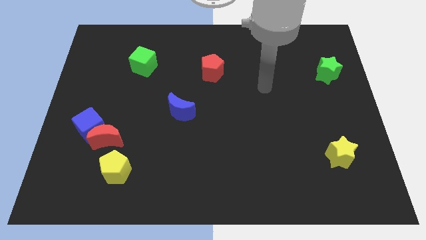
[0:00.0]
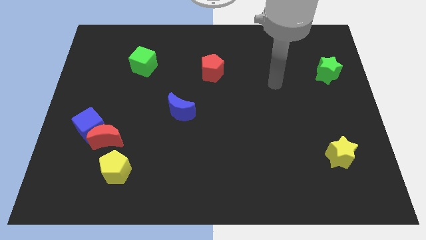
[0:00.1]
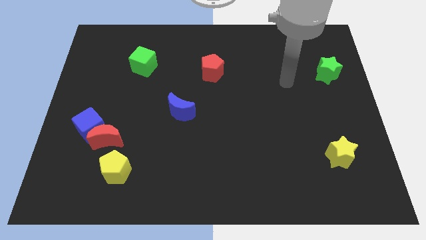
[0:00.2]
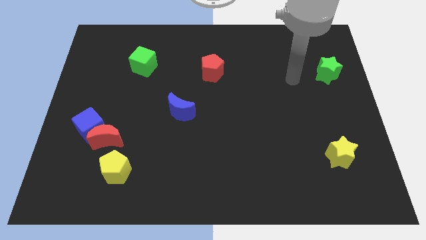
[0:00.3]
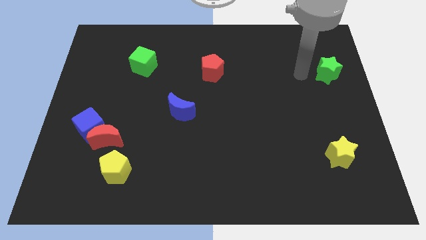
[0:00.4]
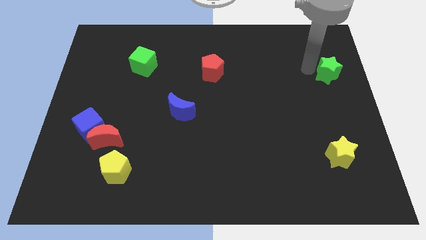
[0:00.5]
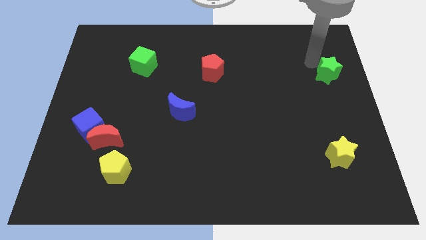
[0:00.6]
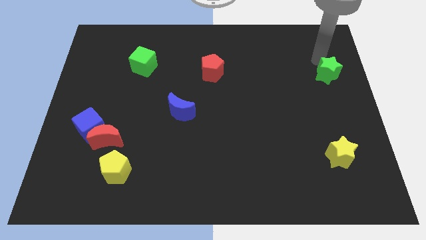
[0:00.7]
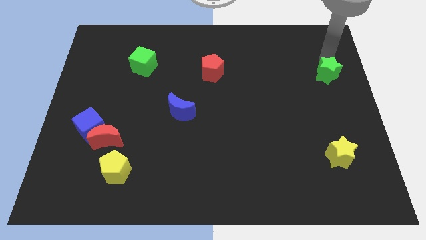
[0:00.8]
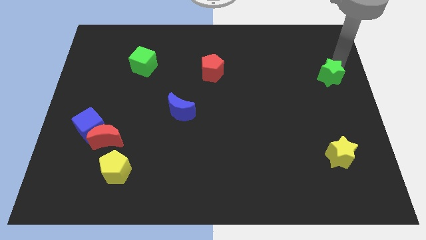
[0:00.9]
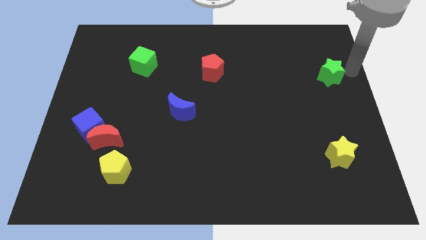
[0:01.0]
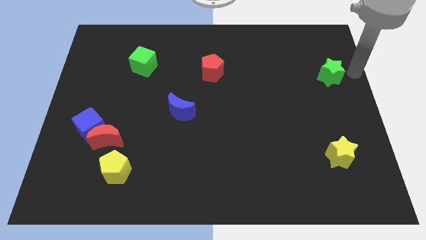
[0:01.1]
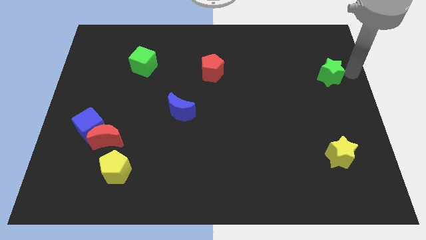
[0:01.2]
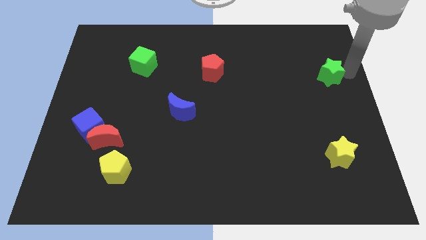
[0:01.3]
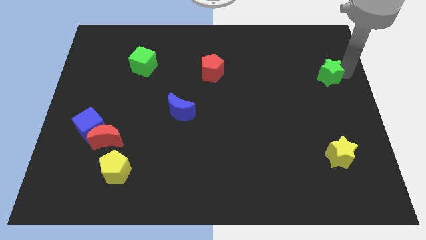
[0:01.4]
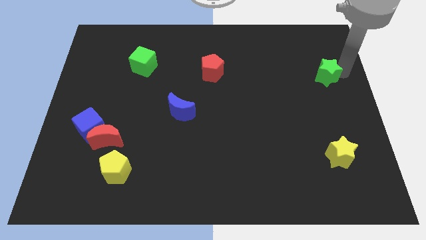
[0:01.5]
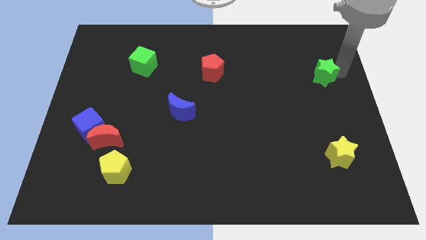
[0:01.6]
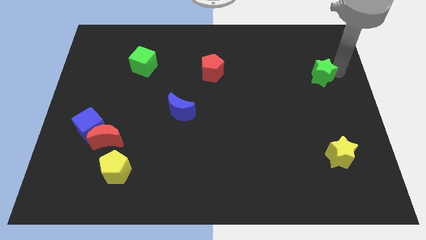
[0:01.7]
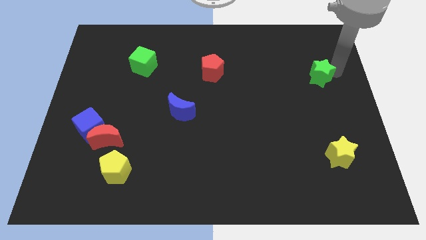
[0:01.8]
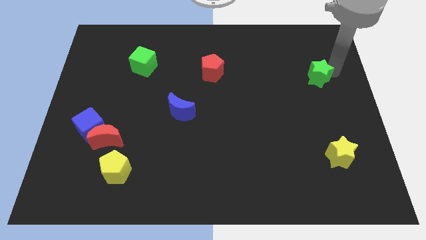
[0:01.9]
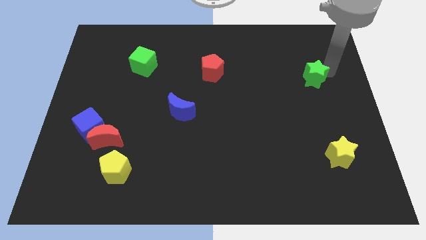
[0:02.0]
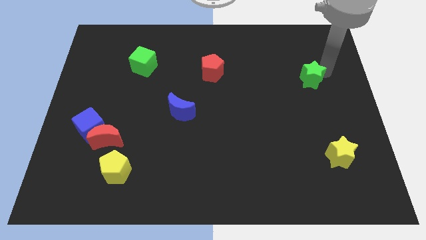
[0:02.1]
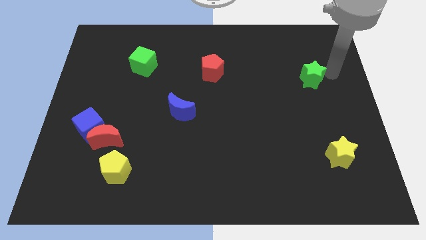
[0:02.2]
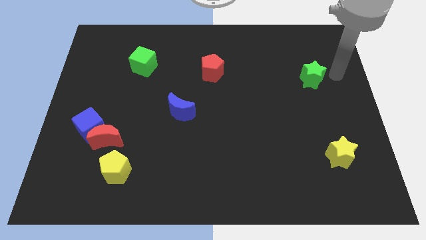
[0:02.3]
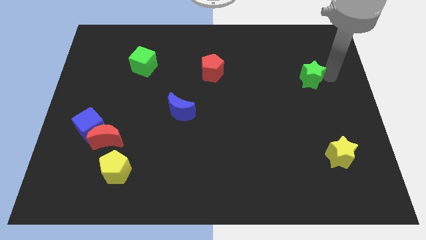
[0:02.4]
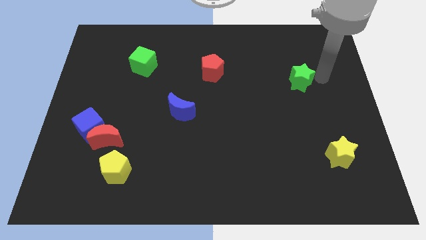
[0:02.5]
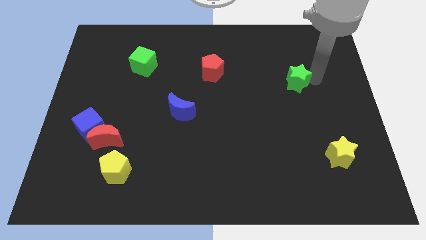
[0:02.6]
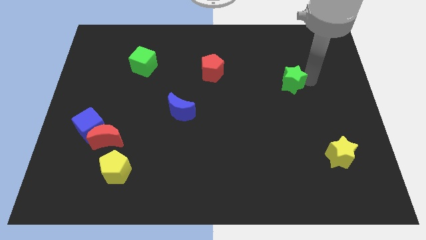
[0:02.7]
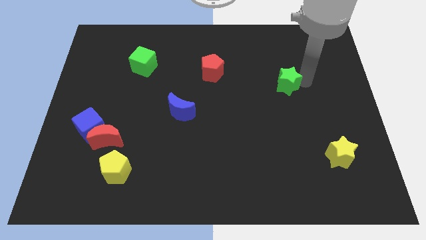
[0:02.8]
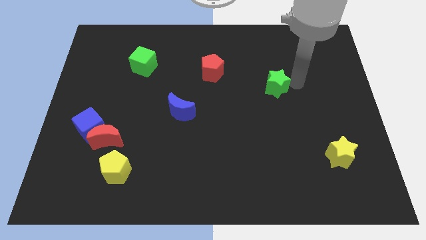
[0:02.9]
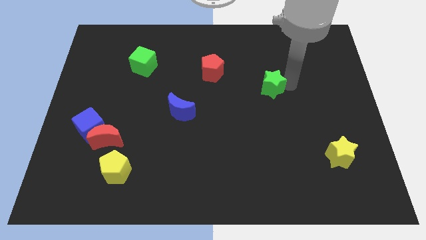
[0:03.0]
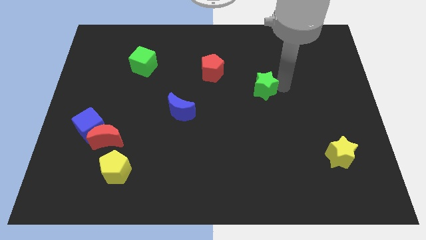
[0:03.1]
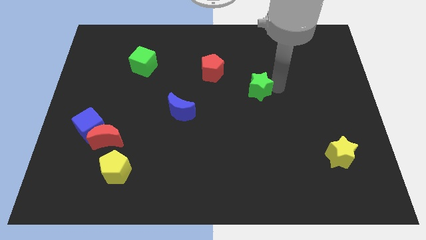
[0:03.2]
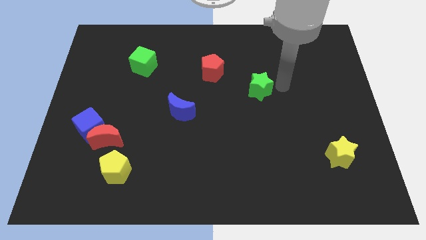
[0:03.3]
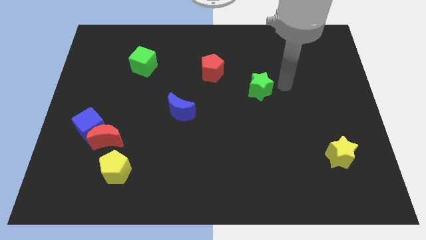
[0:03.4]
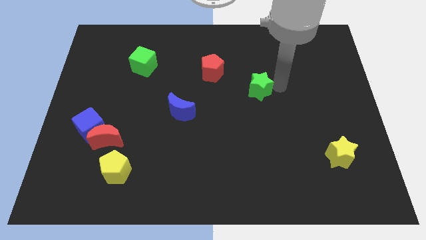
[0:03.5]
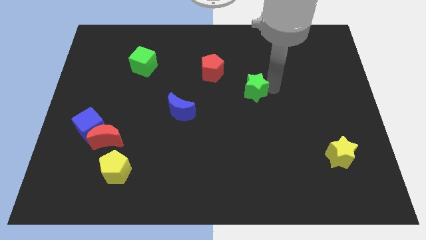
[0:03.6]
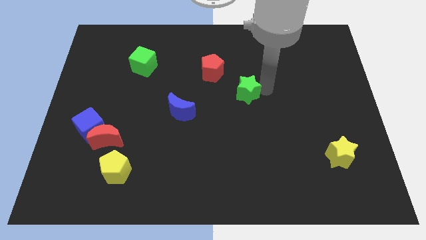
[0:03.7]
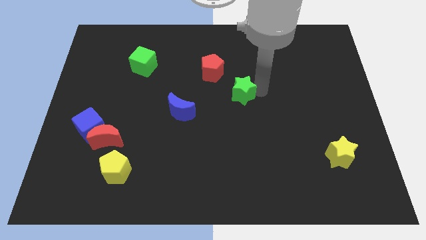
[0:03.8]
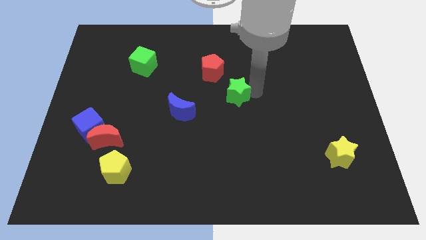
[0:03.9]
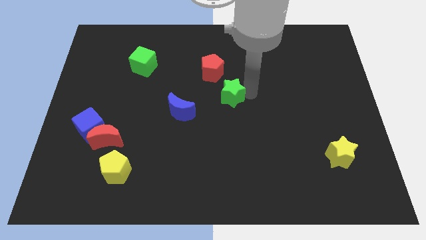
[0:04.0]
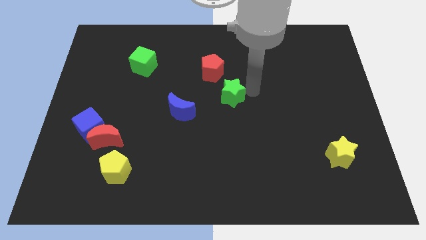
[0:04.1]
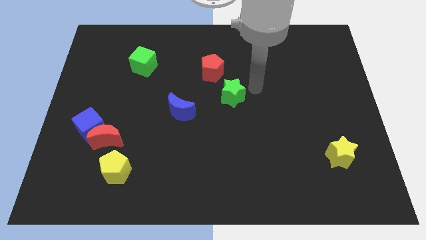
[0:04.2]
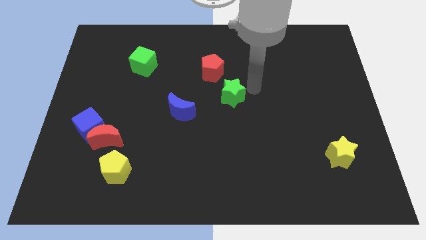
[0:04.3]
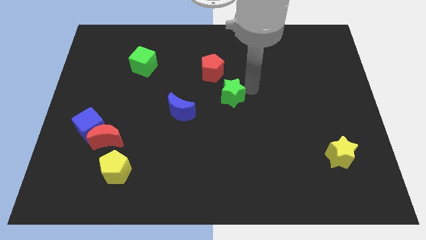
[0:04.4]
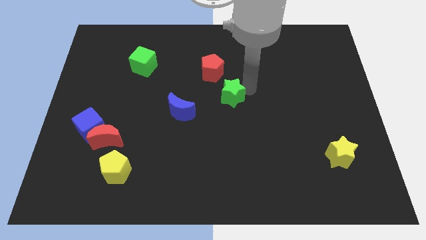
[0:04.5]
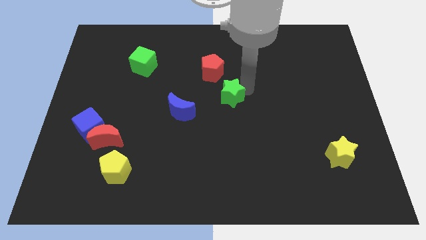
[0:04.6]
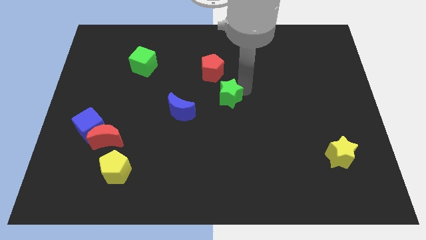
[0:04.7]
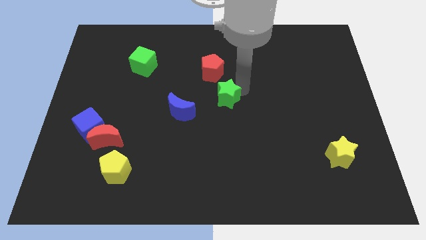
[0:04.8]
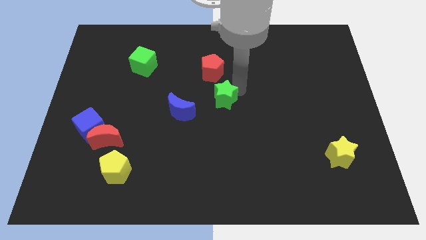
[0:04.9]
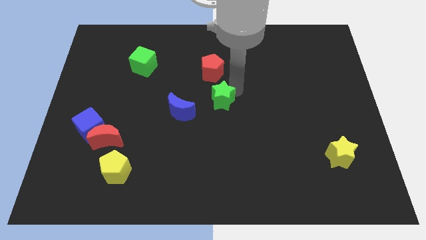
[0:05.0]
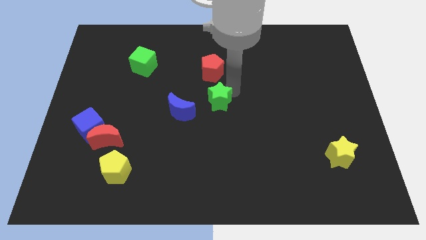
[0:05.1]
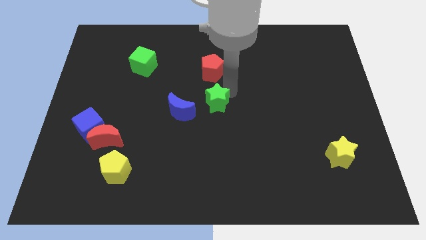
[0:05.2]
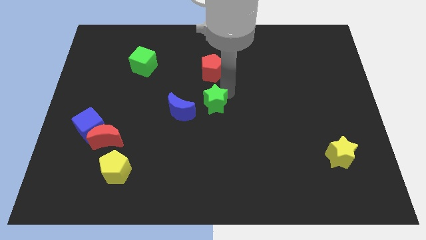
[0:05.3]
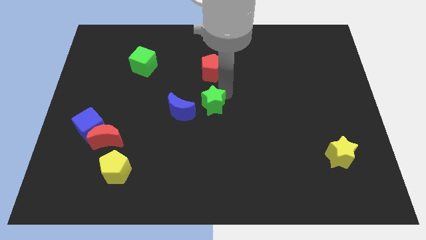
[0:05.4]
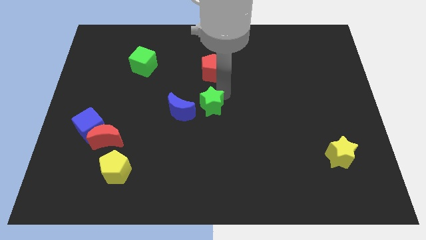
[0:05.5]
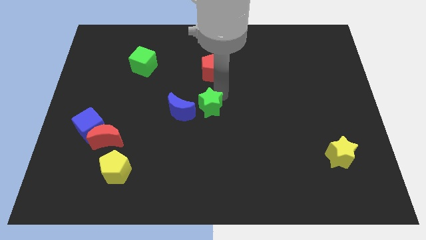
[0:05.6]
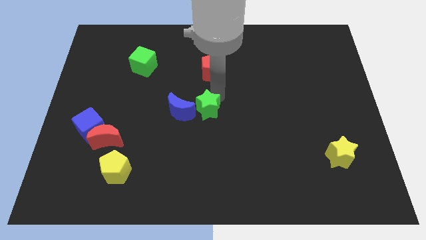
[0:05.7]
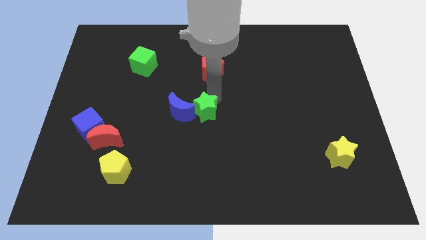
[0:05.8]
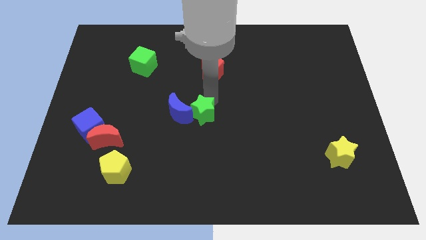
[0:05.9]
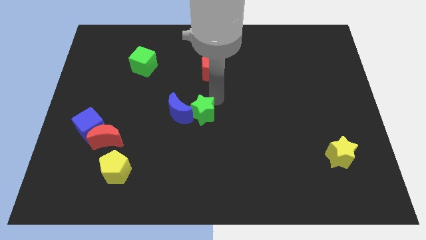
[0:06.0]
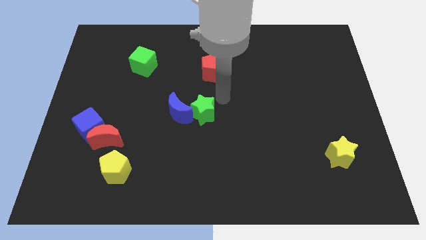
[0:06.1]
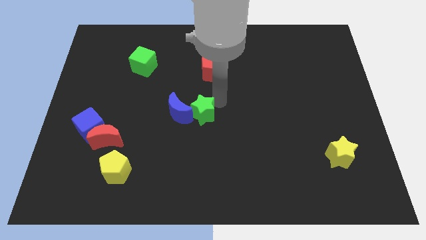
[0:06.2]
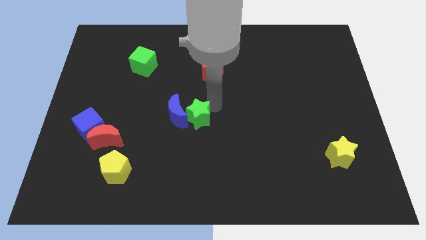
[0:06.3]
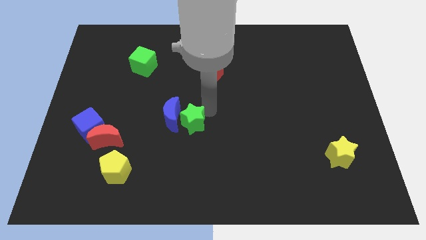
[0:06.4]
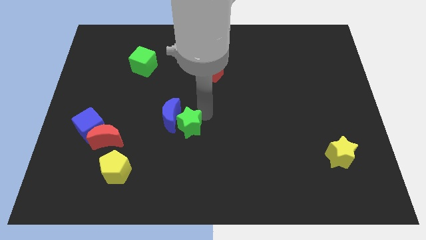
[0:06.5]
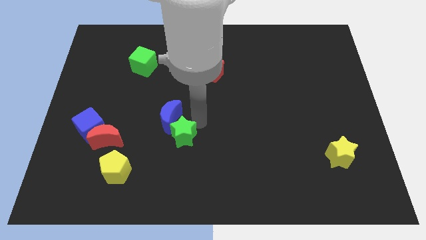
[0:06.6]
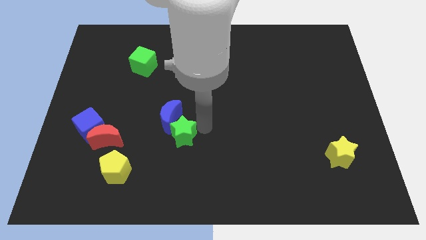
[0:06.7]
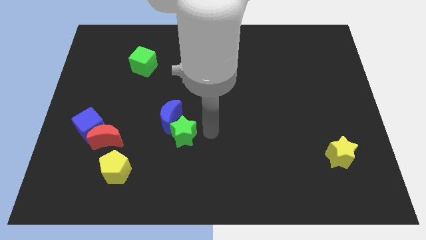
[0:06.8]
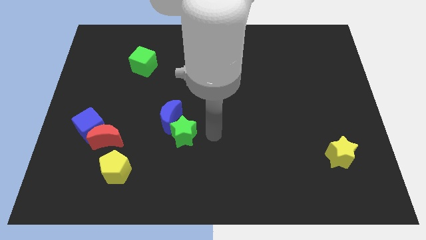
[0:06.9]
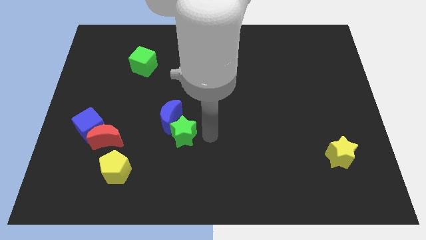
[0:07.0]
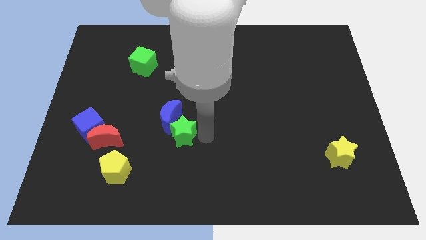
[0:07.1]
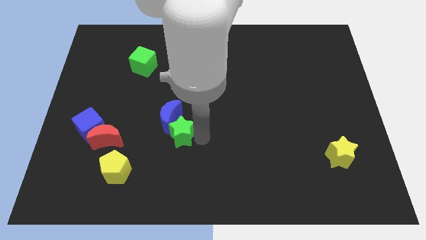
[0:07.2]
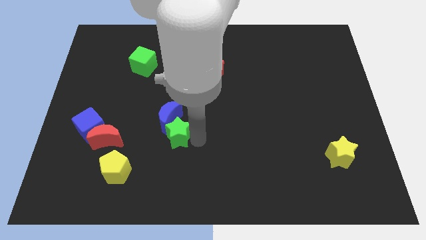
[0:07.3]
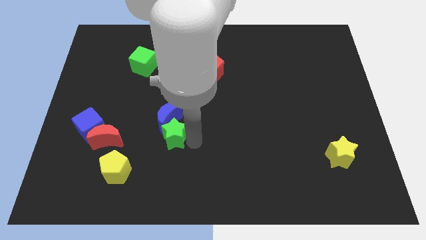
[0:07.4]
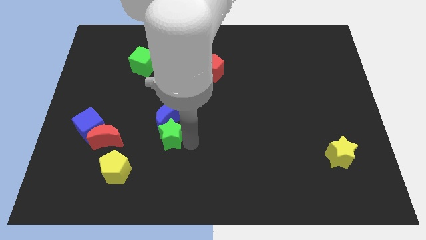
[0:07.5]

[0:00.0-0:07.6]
push the green star to the bottom left of the blue moon
